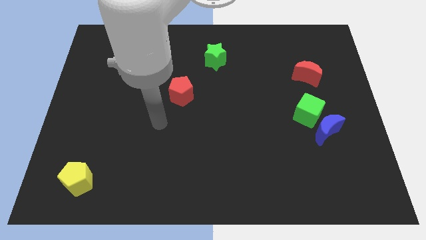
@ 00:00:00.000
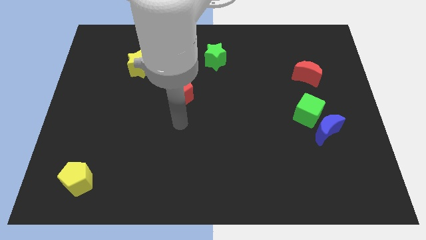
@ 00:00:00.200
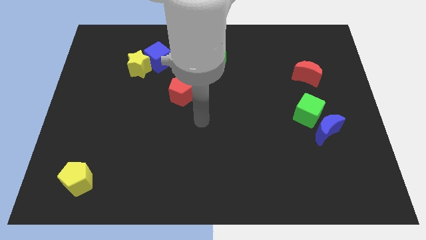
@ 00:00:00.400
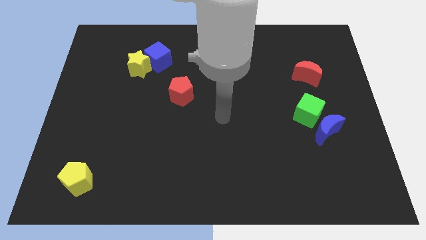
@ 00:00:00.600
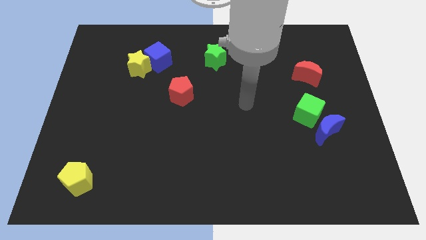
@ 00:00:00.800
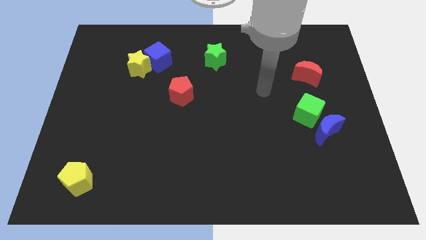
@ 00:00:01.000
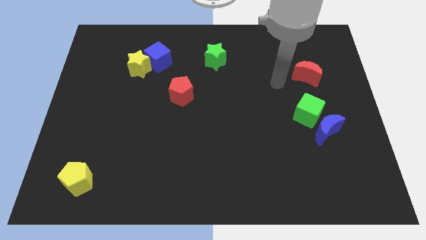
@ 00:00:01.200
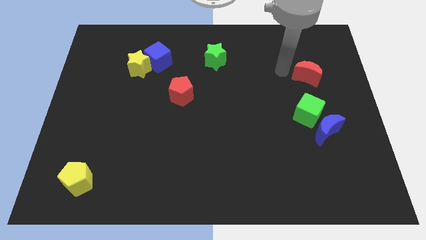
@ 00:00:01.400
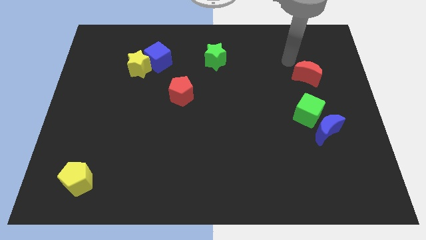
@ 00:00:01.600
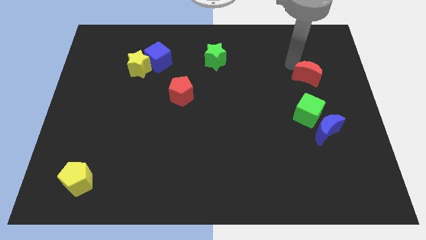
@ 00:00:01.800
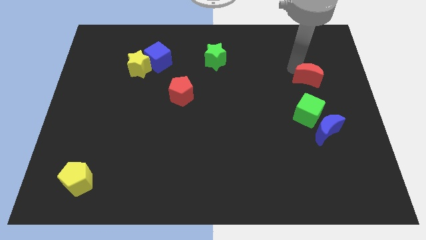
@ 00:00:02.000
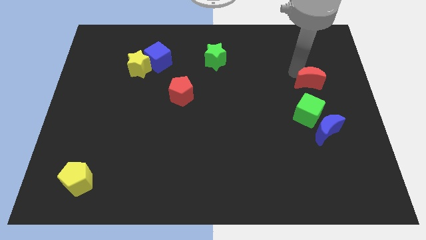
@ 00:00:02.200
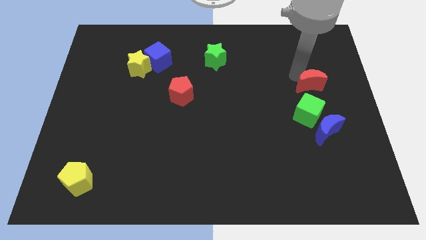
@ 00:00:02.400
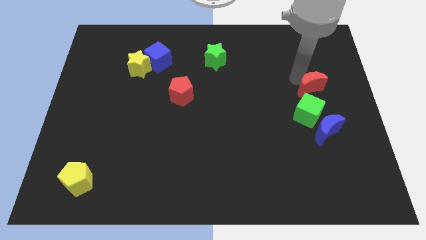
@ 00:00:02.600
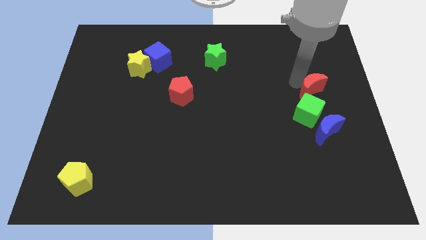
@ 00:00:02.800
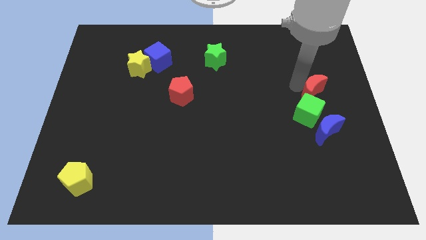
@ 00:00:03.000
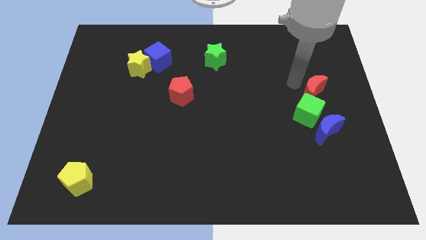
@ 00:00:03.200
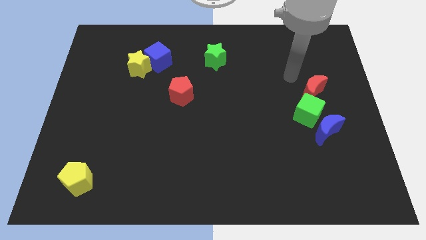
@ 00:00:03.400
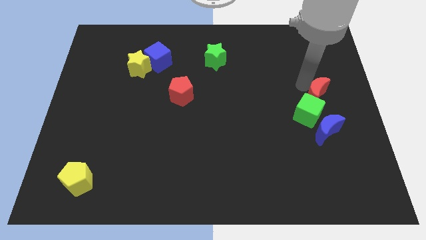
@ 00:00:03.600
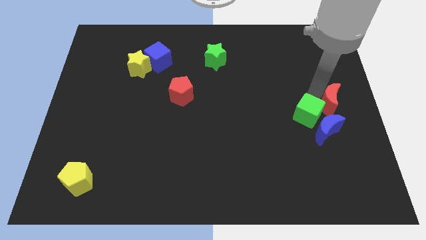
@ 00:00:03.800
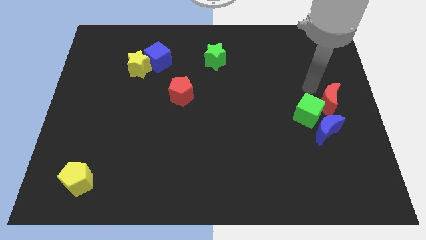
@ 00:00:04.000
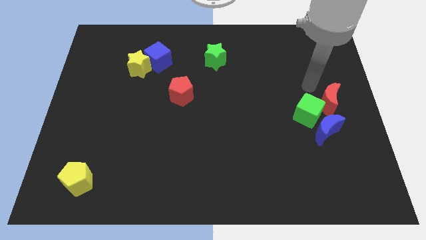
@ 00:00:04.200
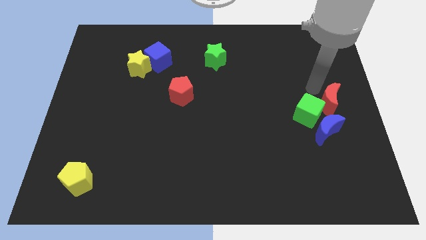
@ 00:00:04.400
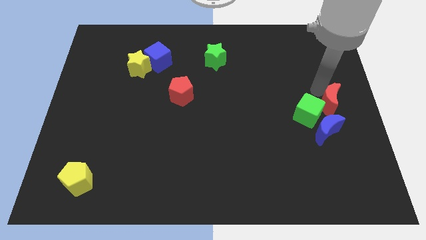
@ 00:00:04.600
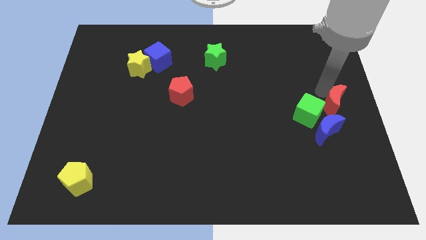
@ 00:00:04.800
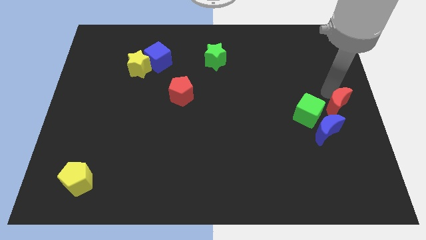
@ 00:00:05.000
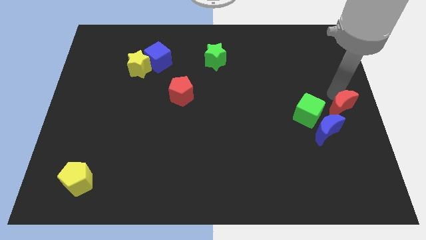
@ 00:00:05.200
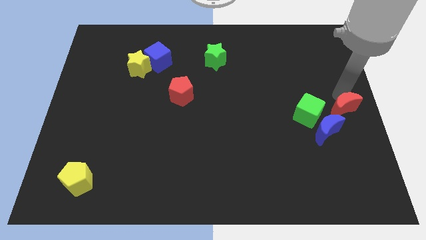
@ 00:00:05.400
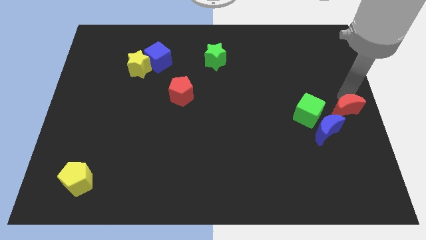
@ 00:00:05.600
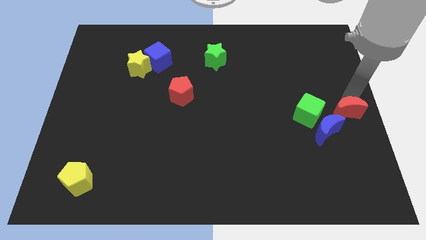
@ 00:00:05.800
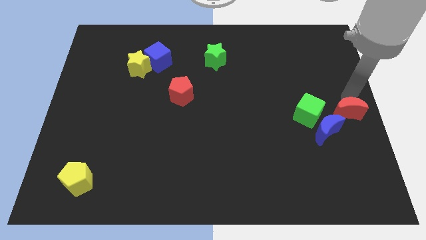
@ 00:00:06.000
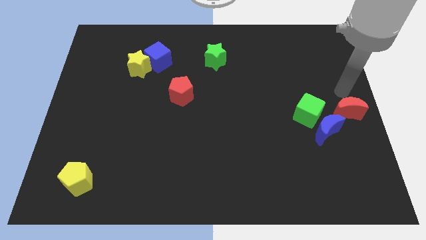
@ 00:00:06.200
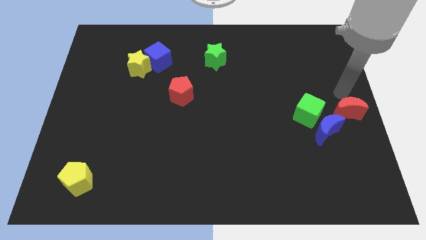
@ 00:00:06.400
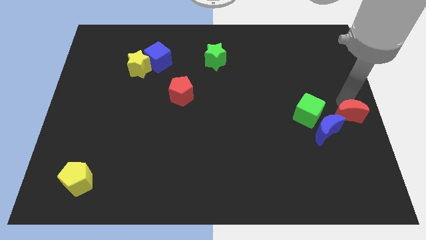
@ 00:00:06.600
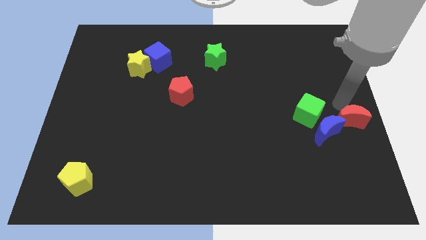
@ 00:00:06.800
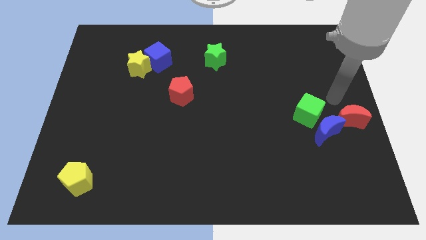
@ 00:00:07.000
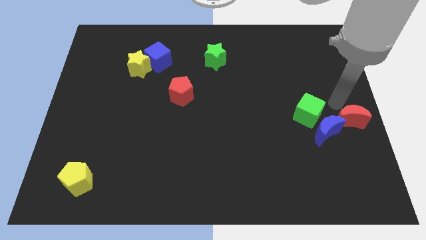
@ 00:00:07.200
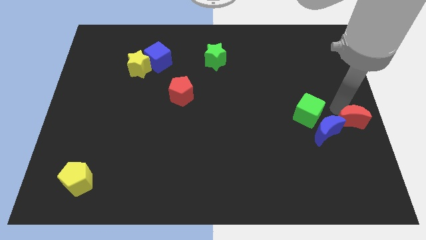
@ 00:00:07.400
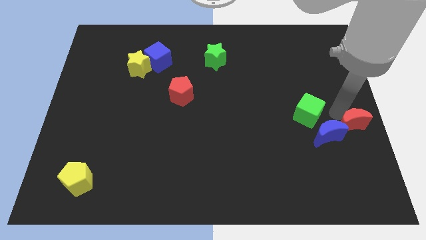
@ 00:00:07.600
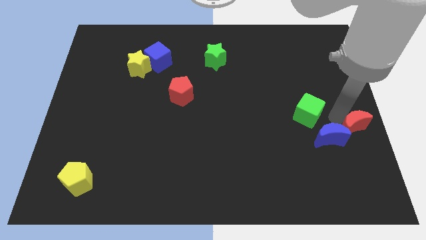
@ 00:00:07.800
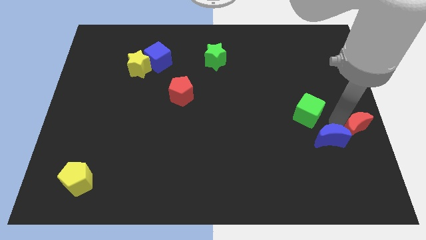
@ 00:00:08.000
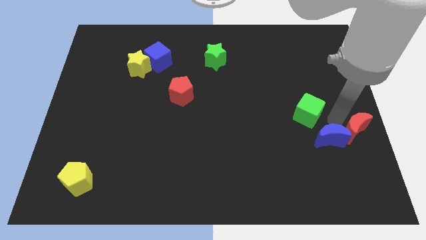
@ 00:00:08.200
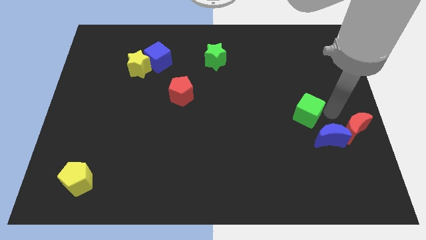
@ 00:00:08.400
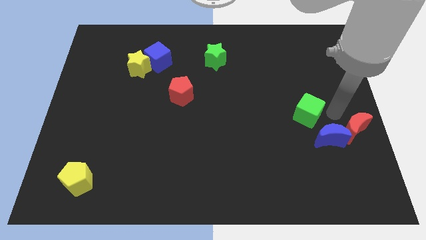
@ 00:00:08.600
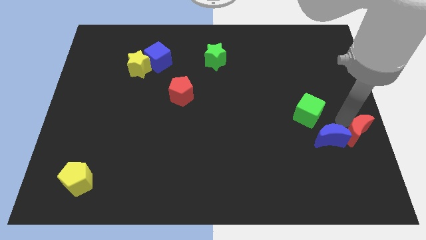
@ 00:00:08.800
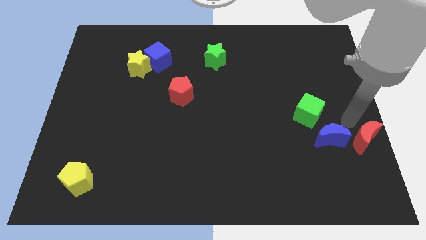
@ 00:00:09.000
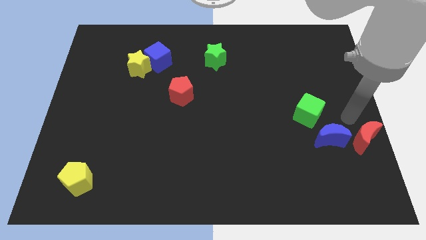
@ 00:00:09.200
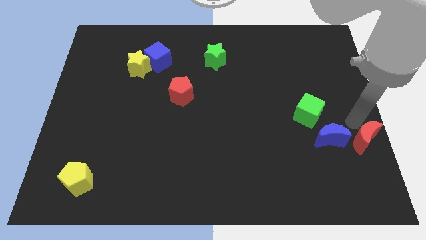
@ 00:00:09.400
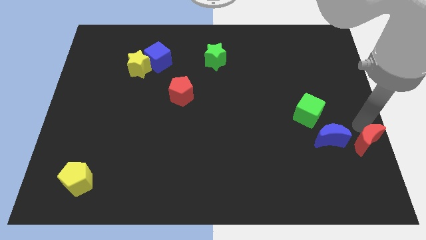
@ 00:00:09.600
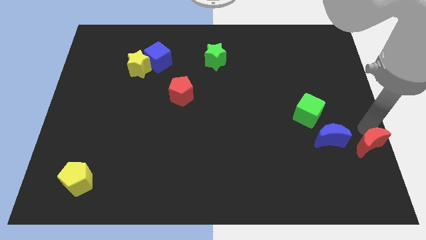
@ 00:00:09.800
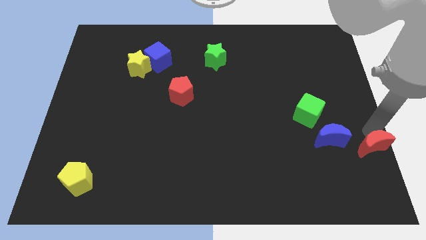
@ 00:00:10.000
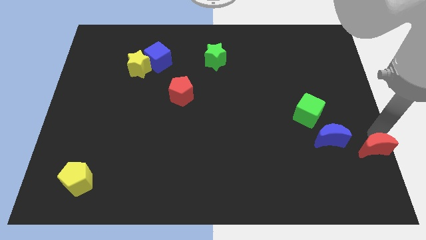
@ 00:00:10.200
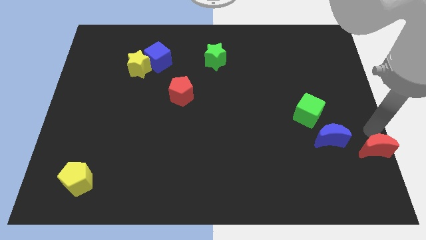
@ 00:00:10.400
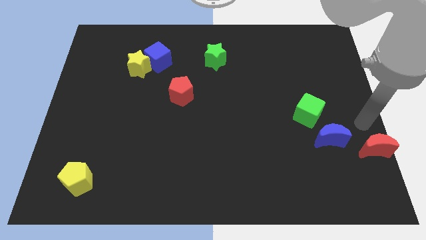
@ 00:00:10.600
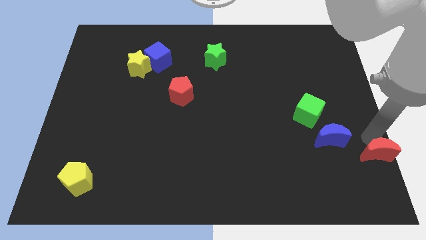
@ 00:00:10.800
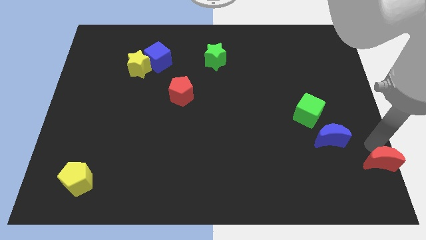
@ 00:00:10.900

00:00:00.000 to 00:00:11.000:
put the red moon to the lower right corner
